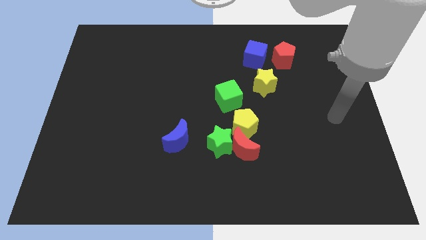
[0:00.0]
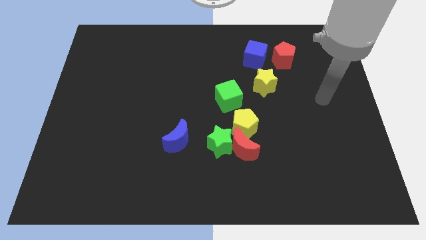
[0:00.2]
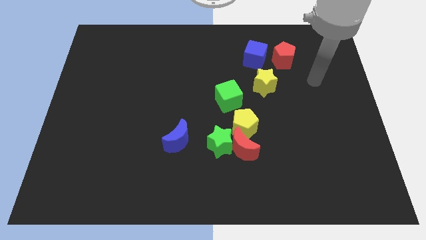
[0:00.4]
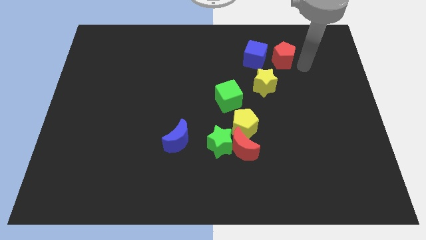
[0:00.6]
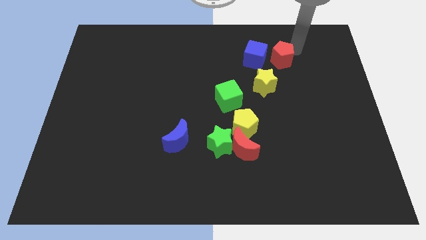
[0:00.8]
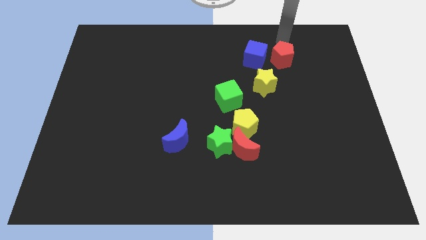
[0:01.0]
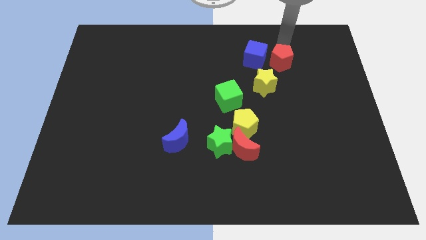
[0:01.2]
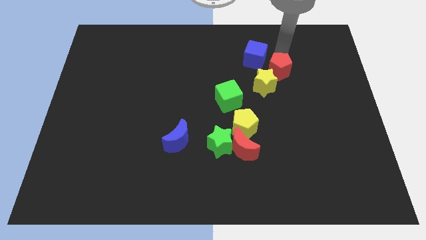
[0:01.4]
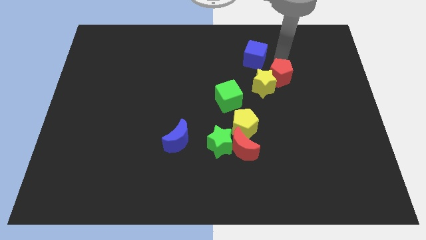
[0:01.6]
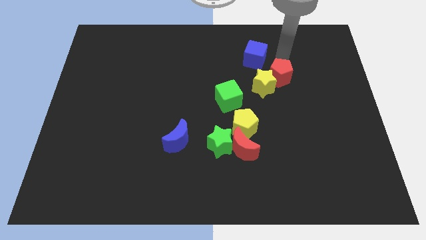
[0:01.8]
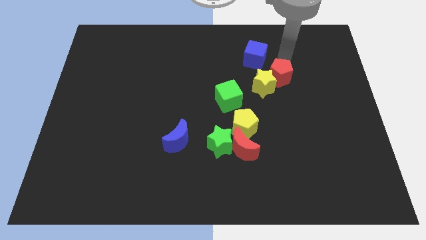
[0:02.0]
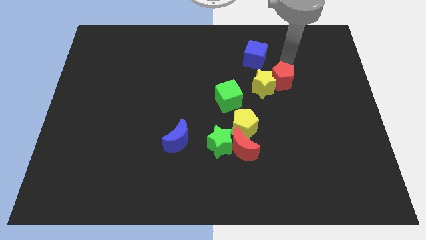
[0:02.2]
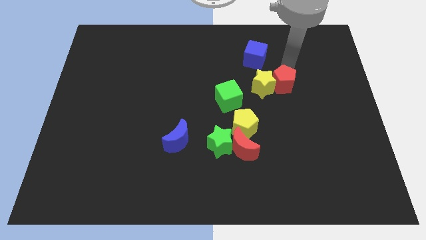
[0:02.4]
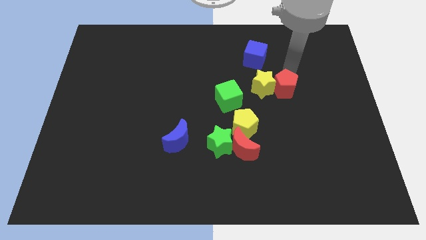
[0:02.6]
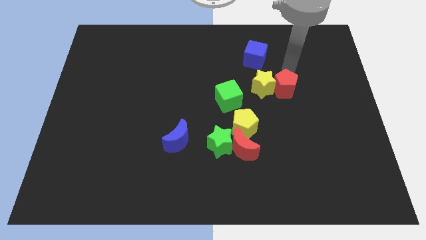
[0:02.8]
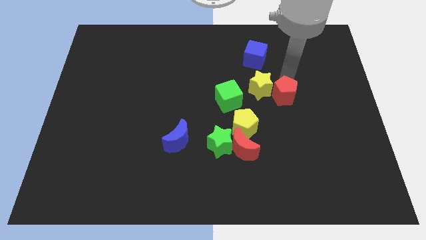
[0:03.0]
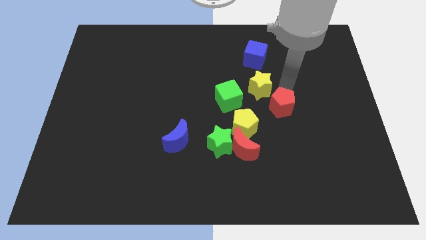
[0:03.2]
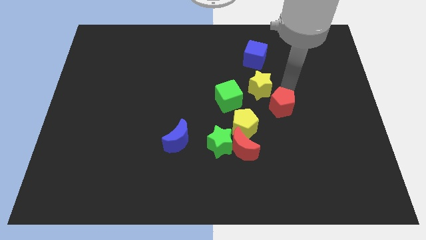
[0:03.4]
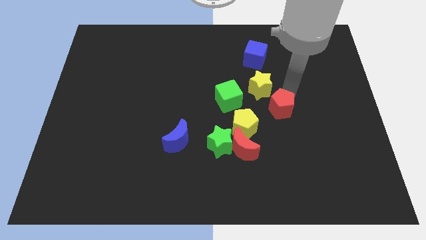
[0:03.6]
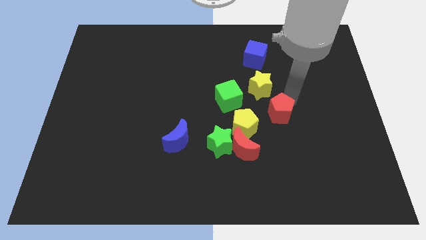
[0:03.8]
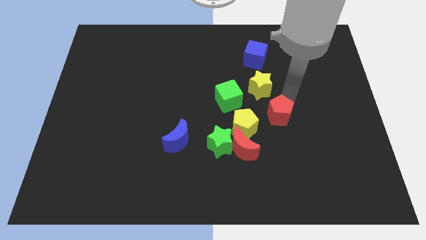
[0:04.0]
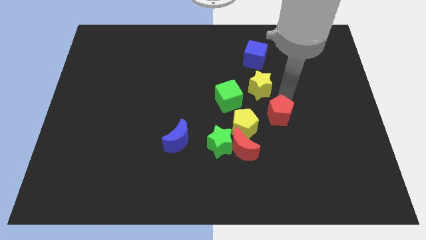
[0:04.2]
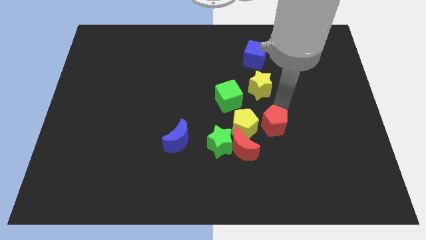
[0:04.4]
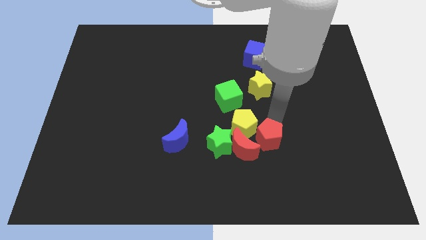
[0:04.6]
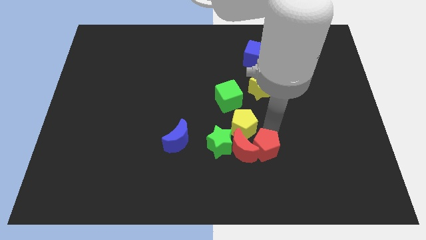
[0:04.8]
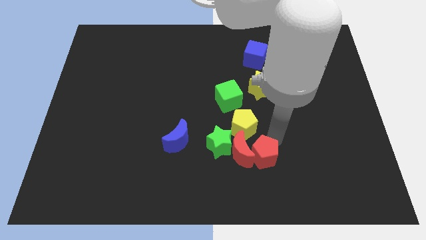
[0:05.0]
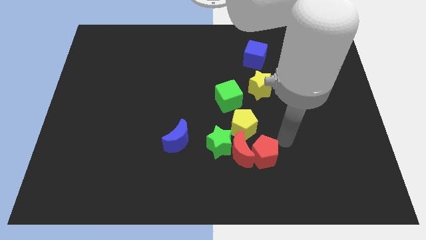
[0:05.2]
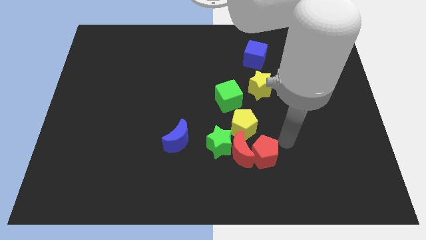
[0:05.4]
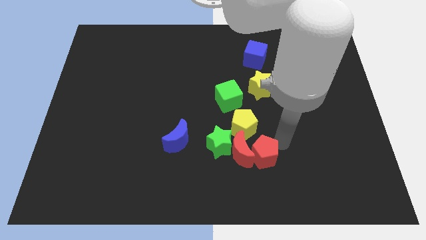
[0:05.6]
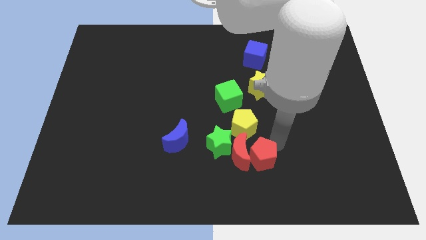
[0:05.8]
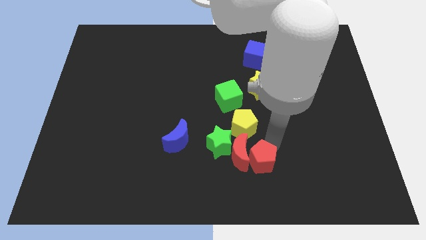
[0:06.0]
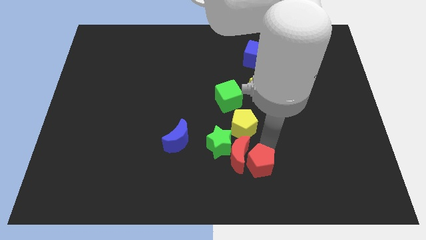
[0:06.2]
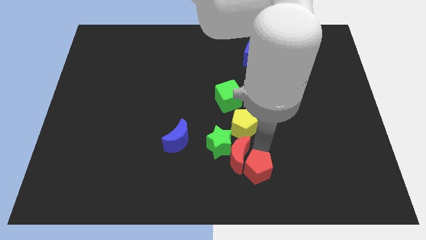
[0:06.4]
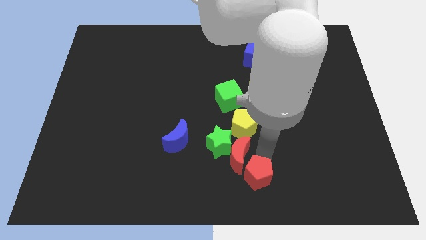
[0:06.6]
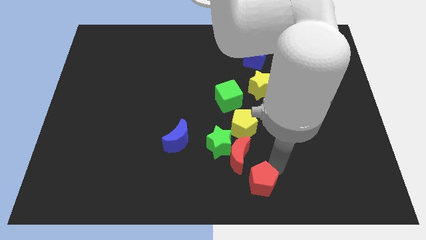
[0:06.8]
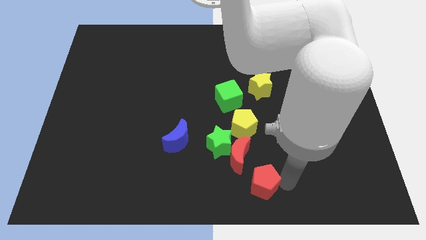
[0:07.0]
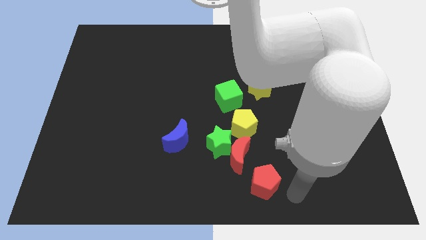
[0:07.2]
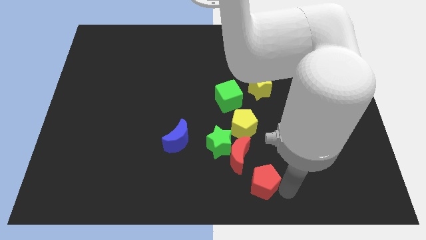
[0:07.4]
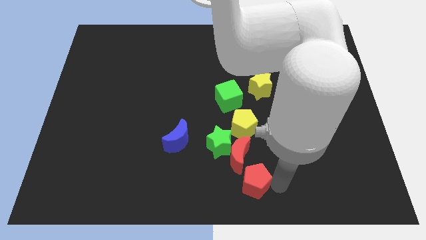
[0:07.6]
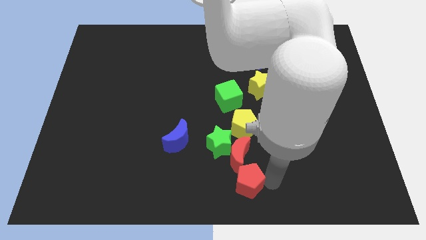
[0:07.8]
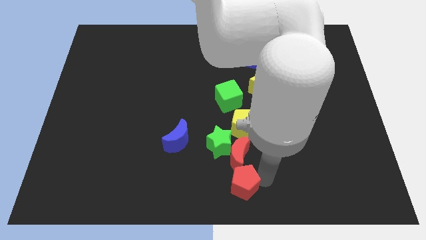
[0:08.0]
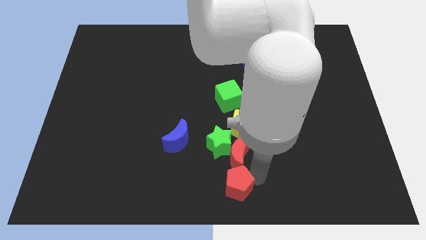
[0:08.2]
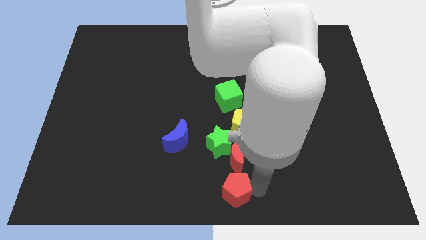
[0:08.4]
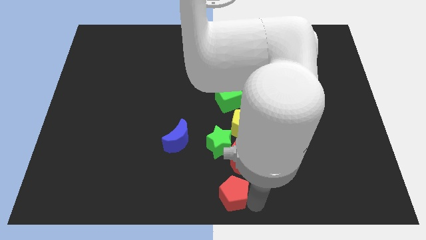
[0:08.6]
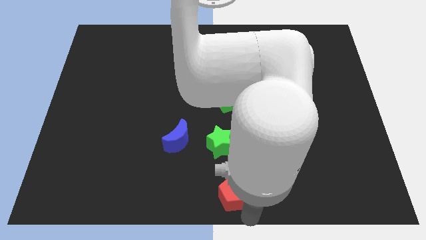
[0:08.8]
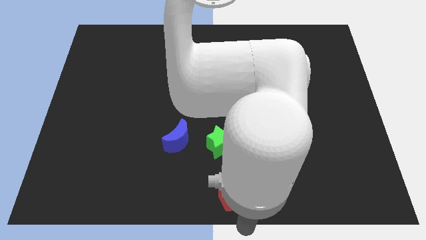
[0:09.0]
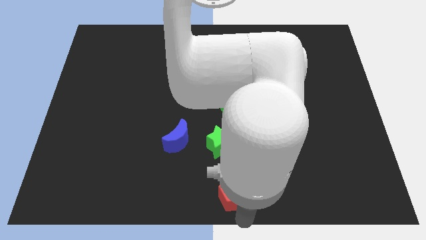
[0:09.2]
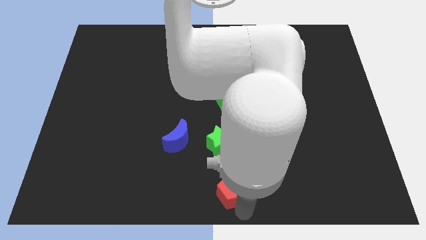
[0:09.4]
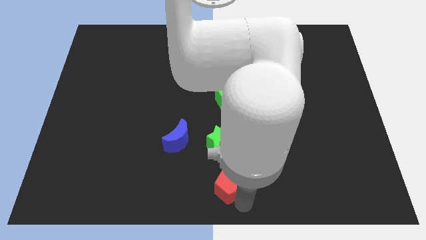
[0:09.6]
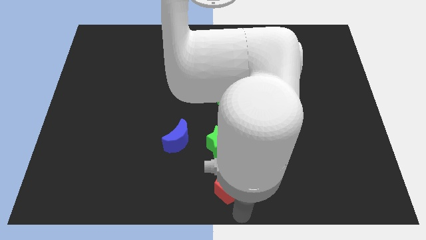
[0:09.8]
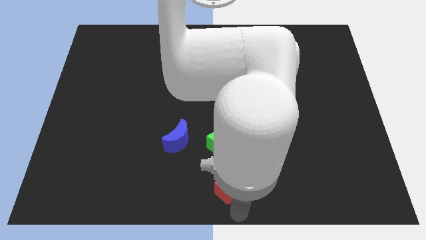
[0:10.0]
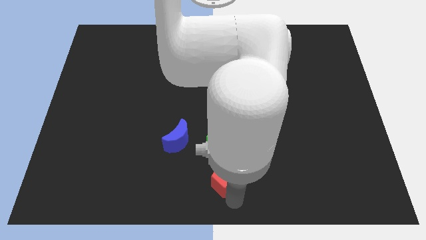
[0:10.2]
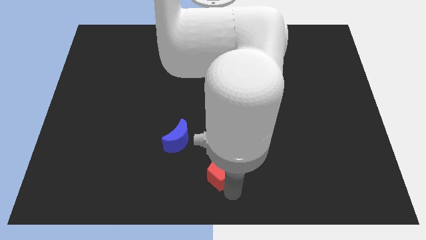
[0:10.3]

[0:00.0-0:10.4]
slide the red pentagon to the bottom right of the blue moon

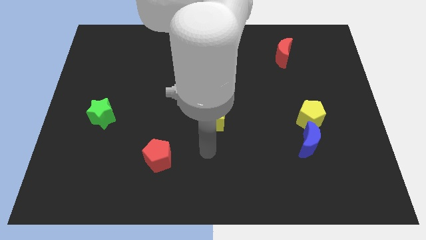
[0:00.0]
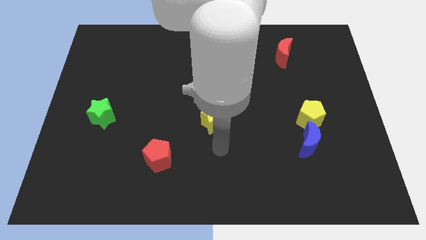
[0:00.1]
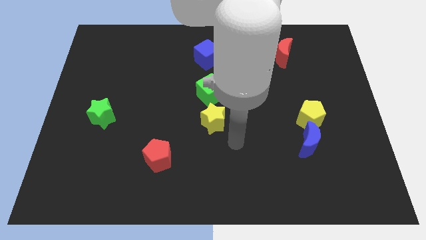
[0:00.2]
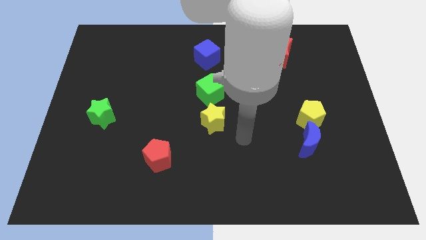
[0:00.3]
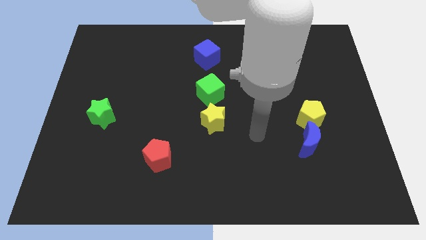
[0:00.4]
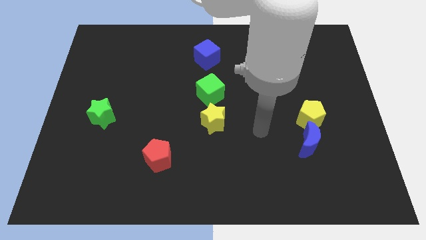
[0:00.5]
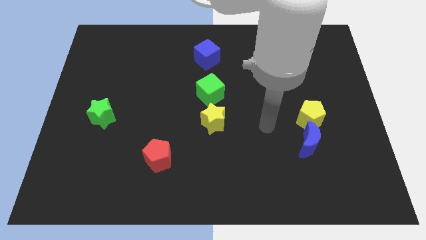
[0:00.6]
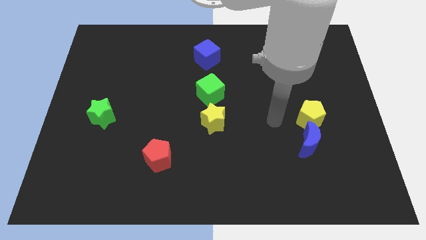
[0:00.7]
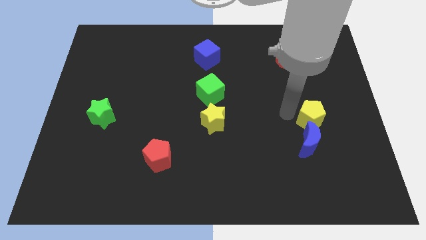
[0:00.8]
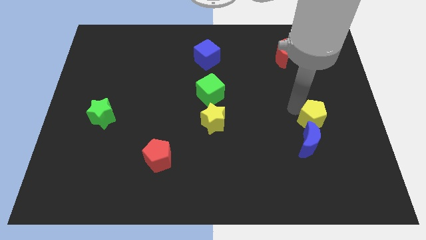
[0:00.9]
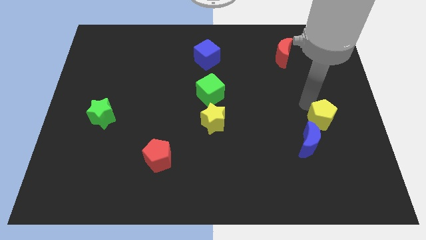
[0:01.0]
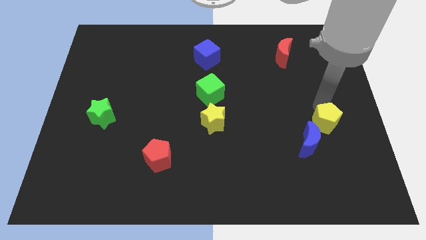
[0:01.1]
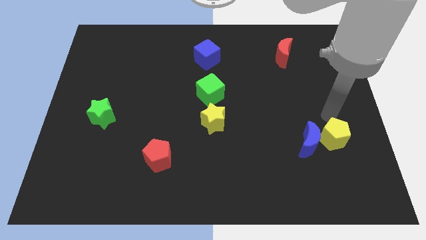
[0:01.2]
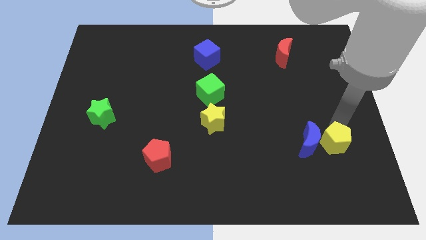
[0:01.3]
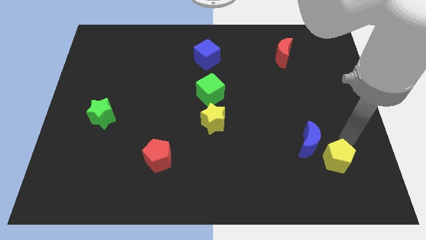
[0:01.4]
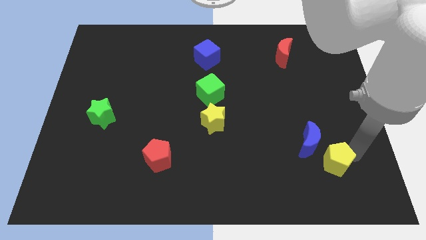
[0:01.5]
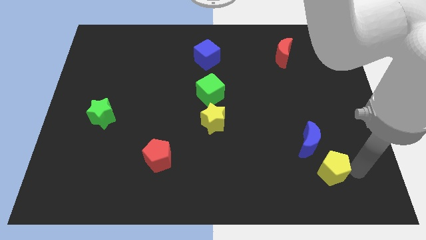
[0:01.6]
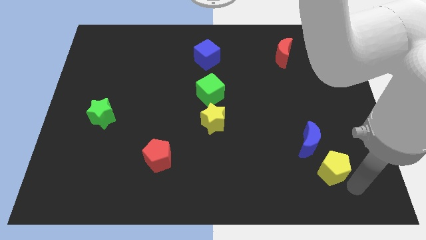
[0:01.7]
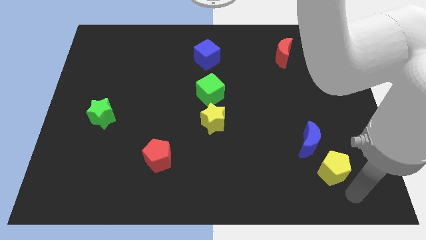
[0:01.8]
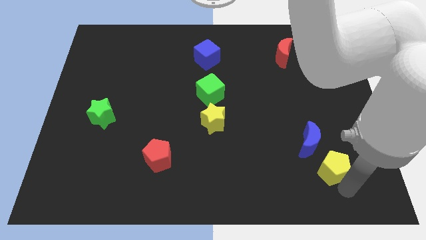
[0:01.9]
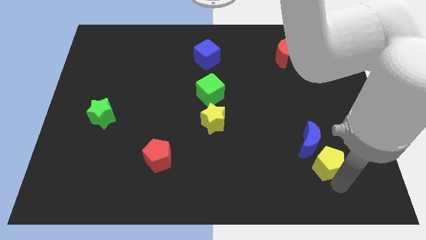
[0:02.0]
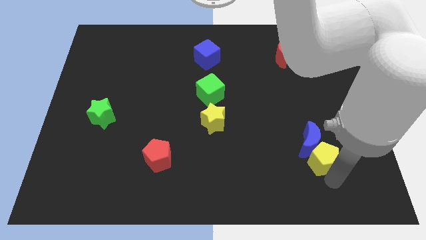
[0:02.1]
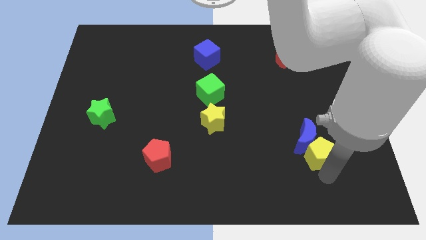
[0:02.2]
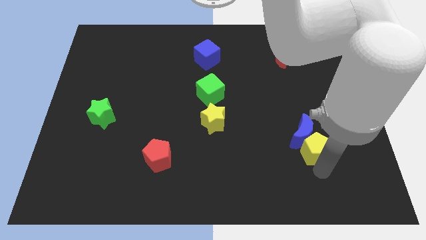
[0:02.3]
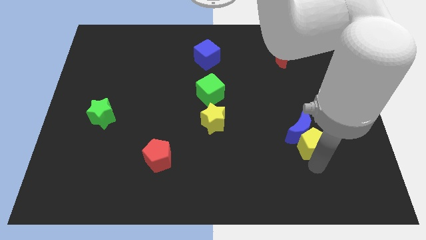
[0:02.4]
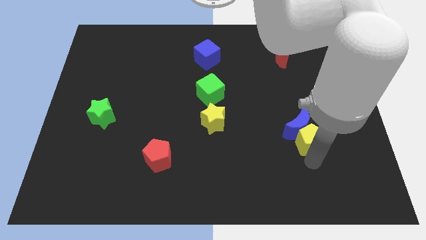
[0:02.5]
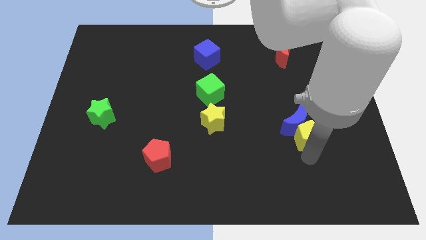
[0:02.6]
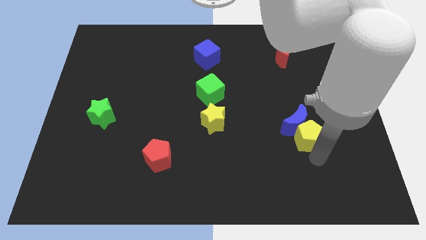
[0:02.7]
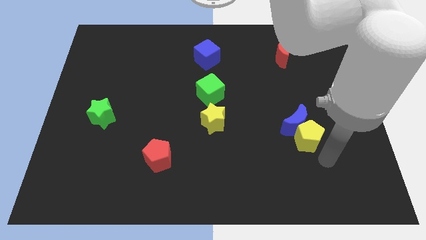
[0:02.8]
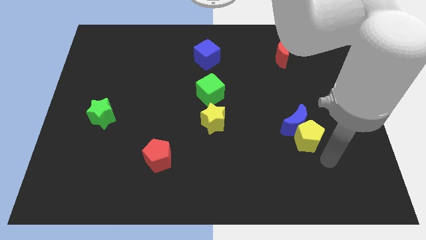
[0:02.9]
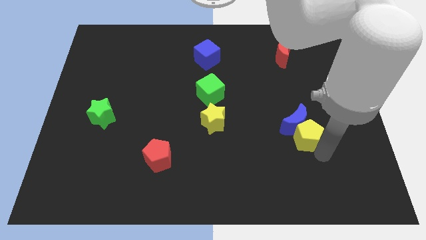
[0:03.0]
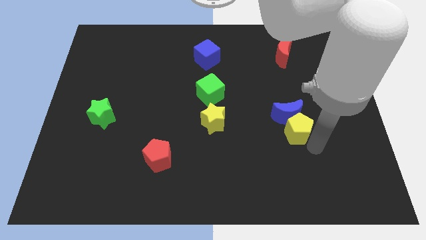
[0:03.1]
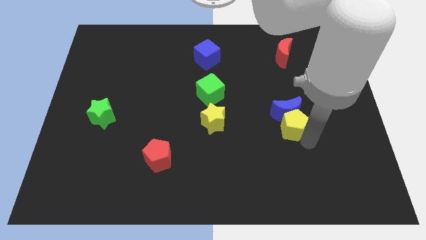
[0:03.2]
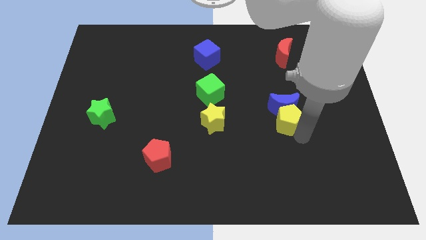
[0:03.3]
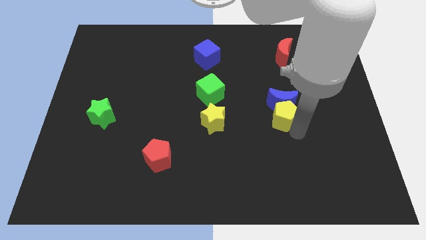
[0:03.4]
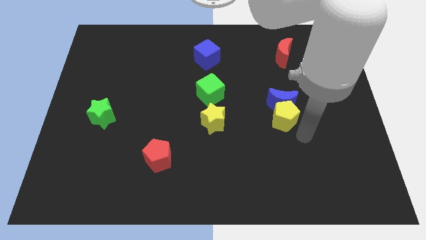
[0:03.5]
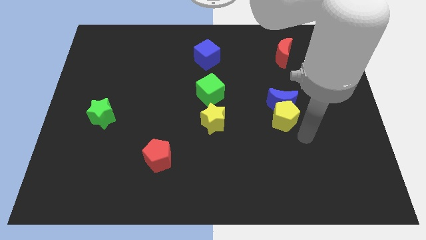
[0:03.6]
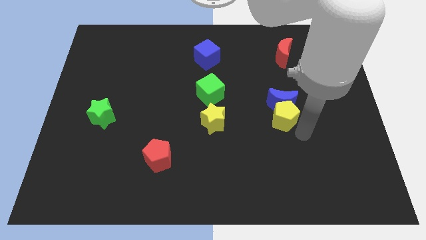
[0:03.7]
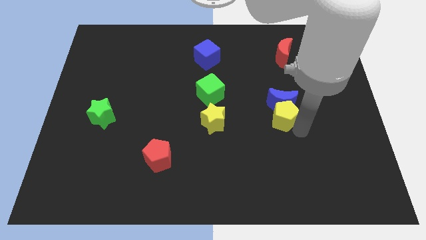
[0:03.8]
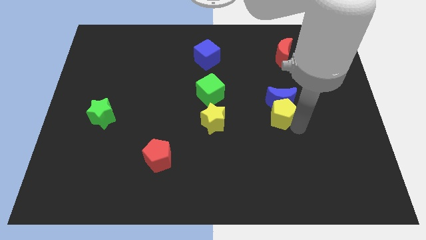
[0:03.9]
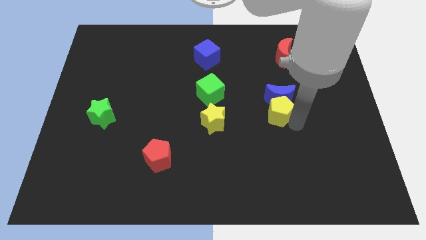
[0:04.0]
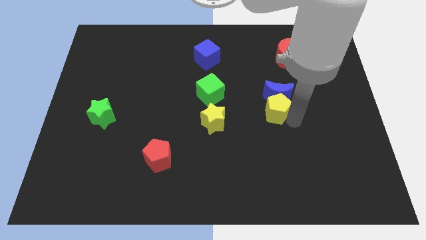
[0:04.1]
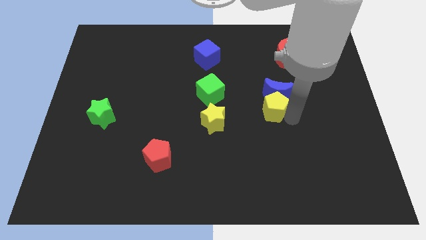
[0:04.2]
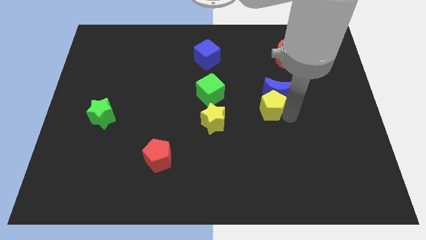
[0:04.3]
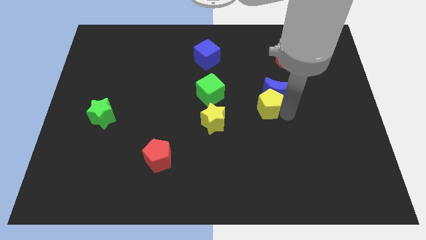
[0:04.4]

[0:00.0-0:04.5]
push the yellow pentagon to the right of the green cube
